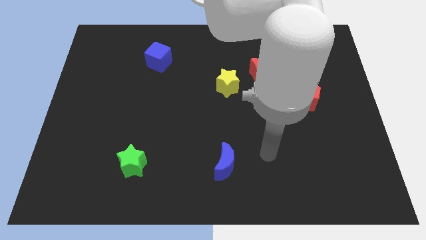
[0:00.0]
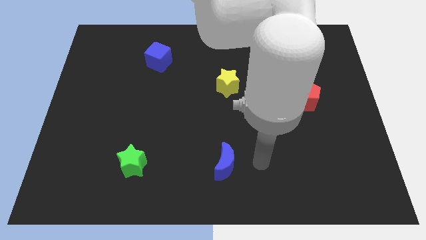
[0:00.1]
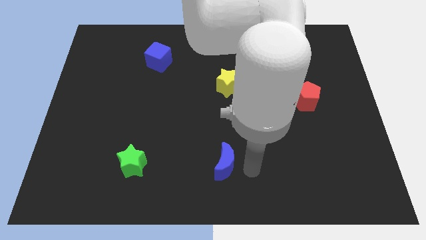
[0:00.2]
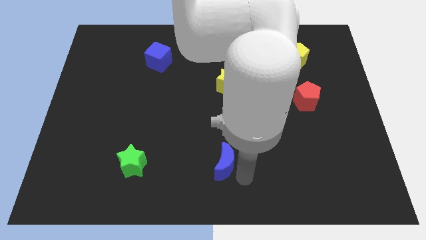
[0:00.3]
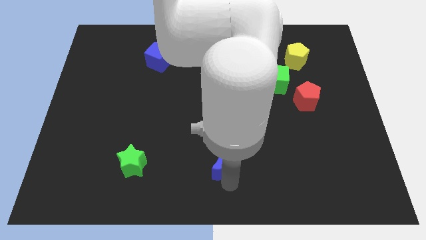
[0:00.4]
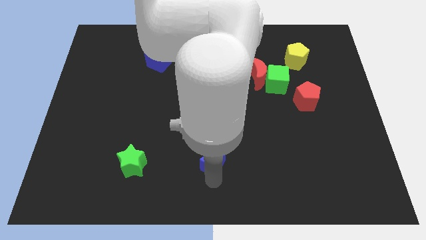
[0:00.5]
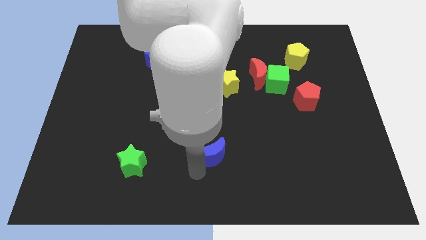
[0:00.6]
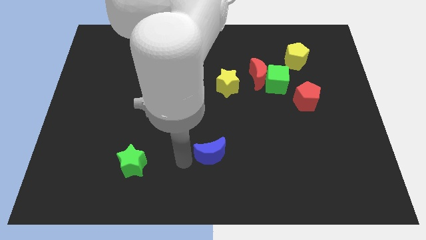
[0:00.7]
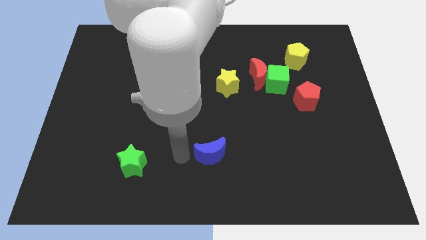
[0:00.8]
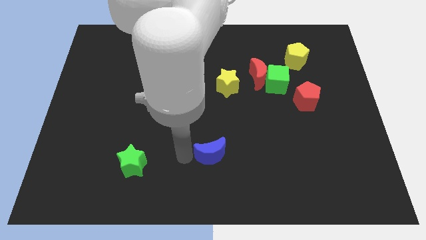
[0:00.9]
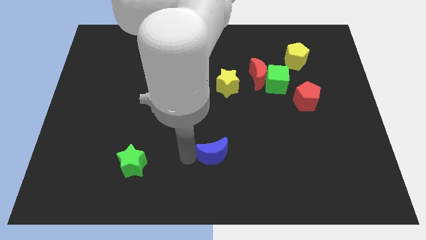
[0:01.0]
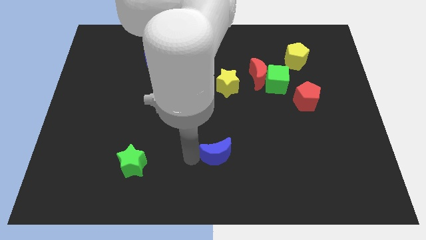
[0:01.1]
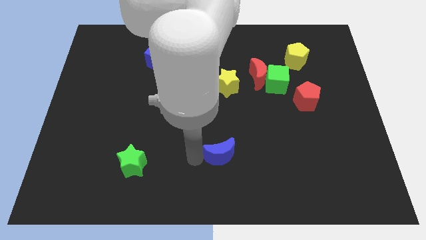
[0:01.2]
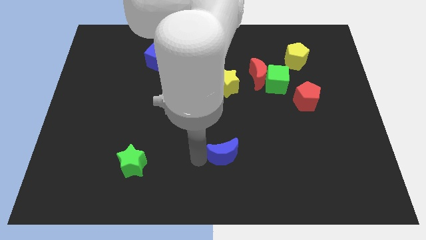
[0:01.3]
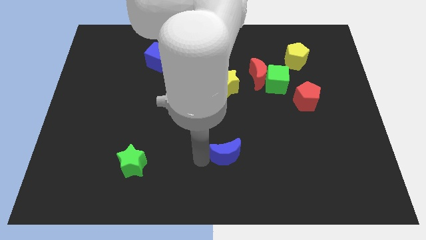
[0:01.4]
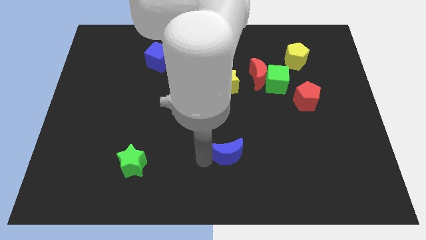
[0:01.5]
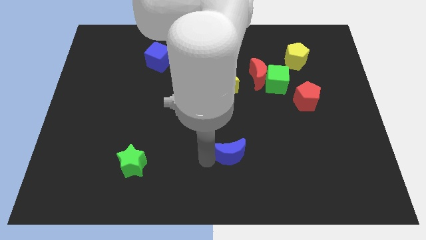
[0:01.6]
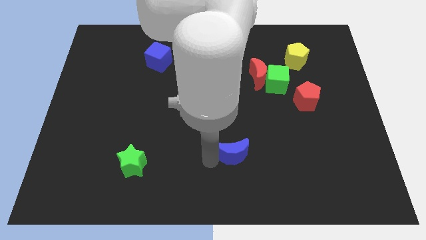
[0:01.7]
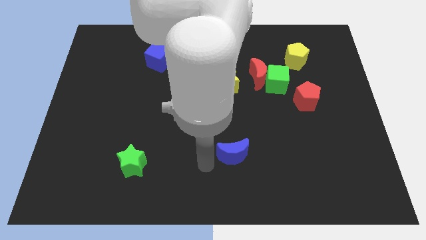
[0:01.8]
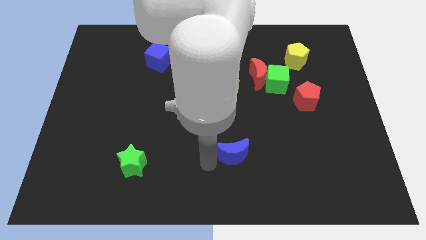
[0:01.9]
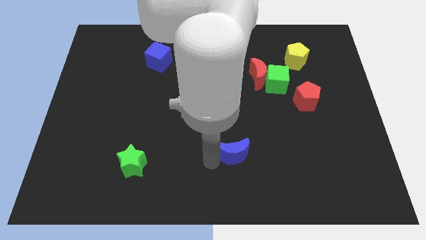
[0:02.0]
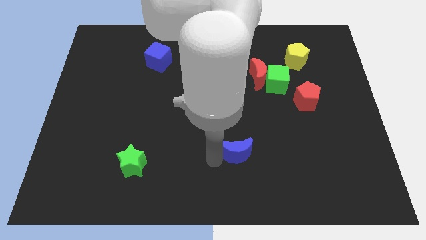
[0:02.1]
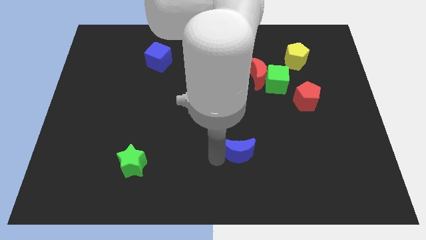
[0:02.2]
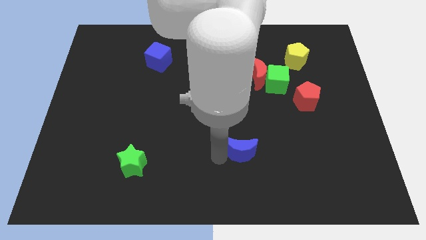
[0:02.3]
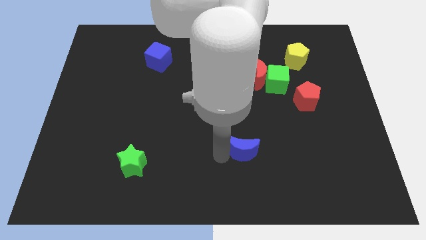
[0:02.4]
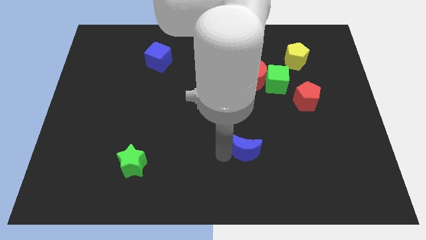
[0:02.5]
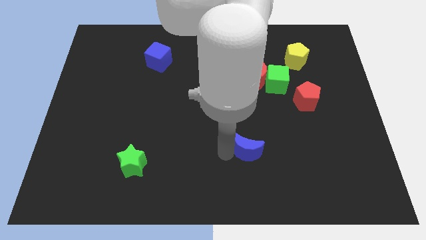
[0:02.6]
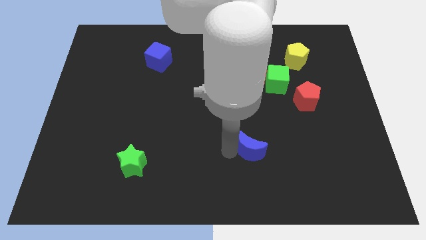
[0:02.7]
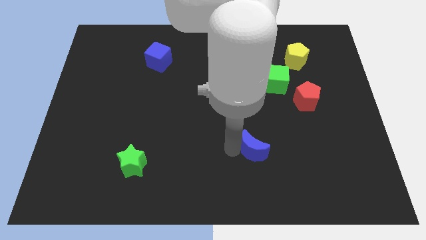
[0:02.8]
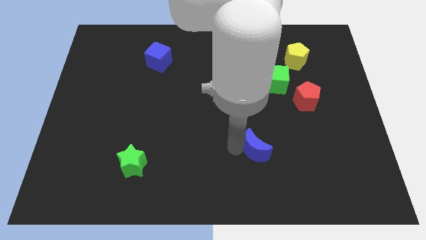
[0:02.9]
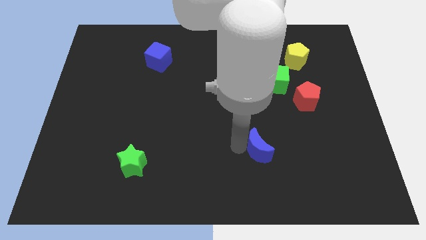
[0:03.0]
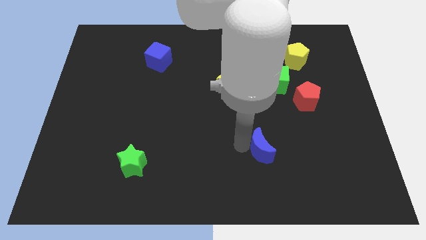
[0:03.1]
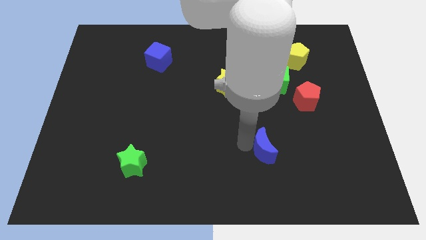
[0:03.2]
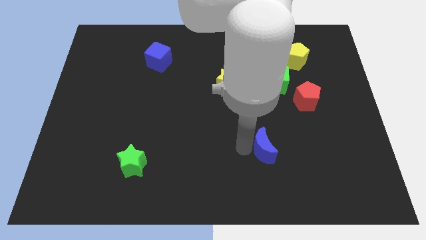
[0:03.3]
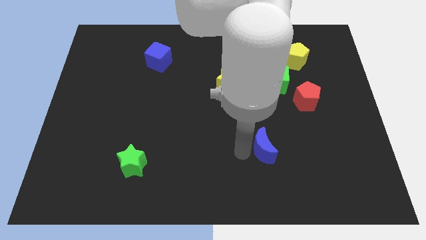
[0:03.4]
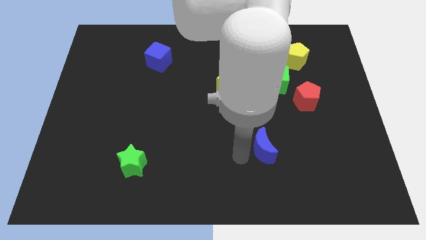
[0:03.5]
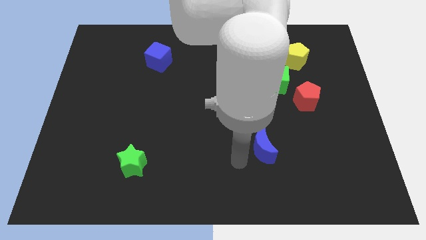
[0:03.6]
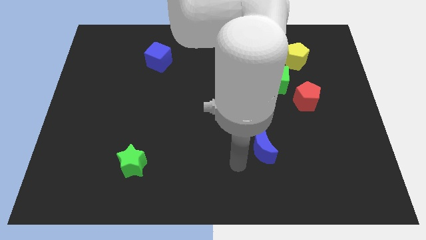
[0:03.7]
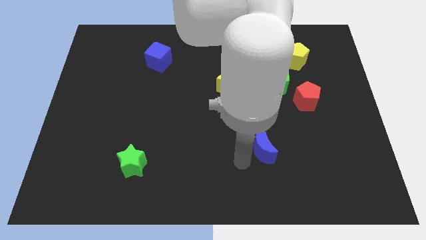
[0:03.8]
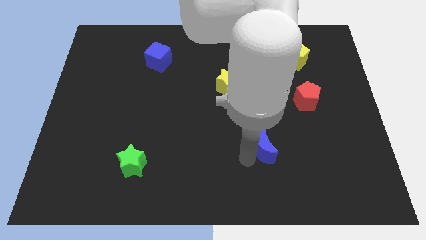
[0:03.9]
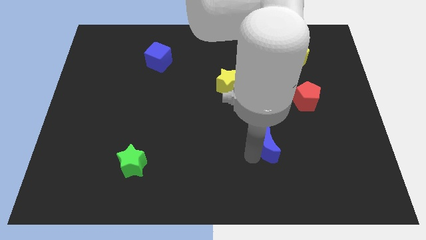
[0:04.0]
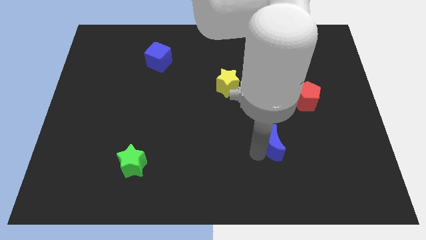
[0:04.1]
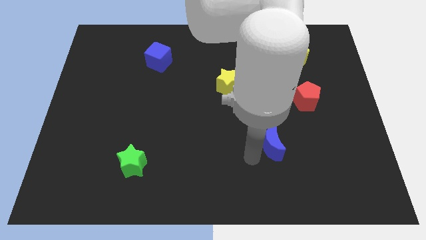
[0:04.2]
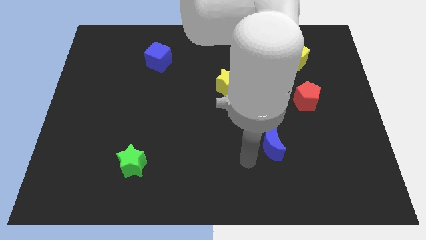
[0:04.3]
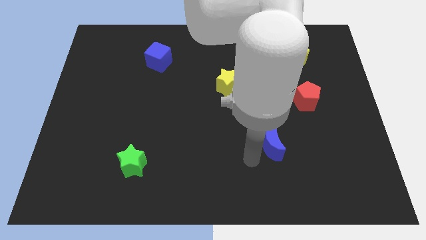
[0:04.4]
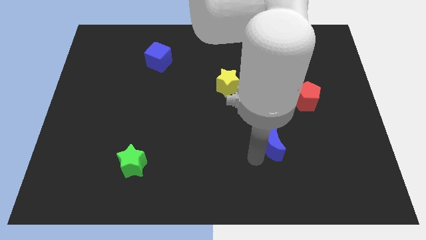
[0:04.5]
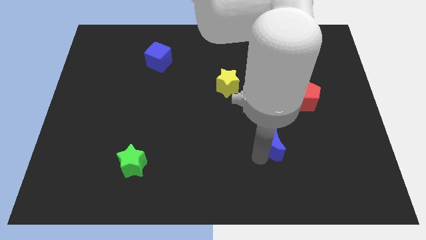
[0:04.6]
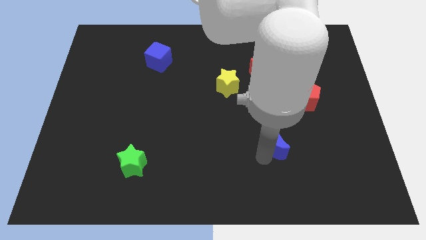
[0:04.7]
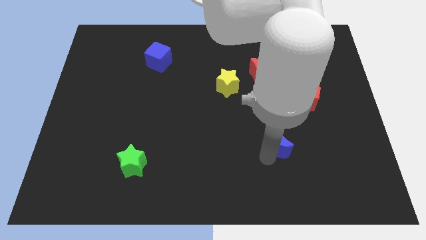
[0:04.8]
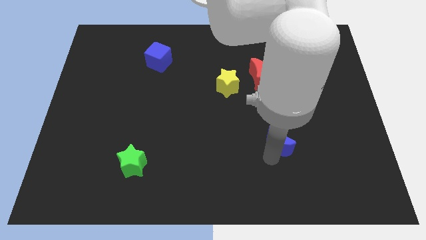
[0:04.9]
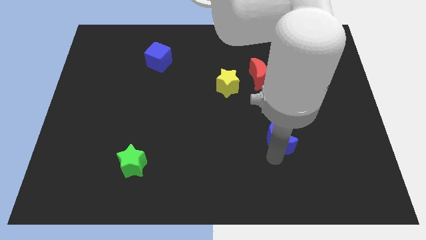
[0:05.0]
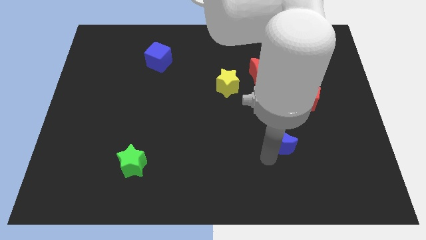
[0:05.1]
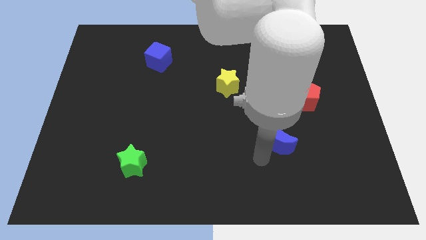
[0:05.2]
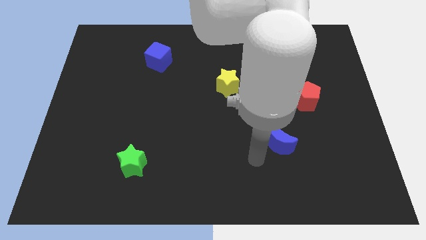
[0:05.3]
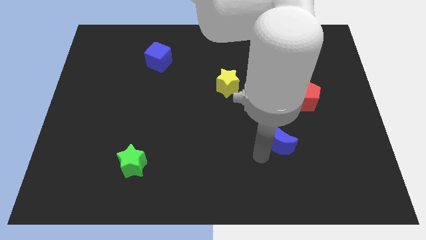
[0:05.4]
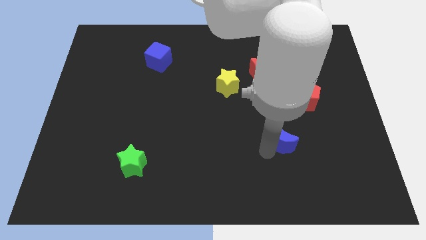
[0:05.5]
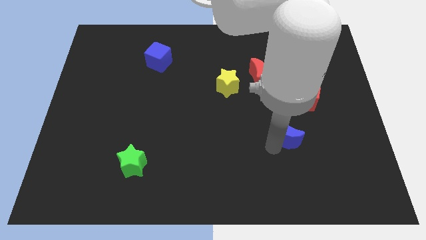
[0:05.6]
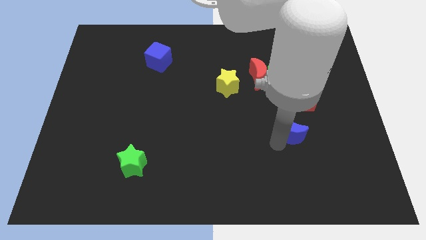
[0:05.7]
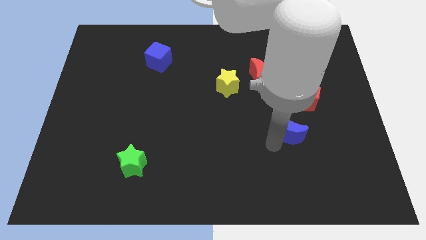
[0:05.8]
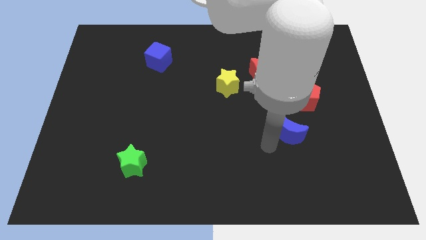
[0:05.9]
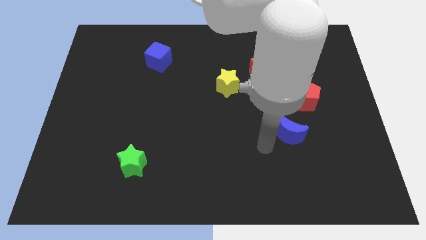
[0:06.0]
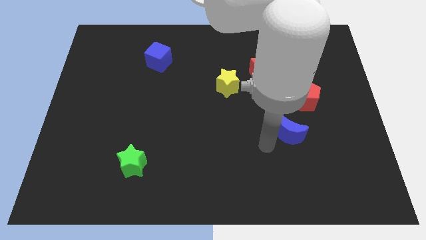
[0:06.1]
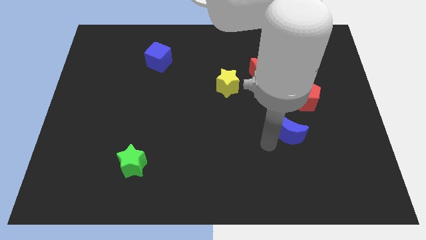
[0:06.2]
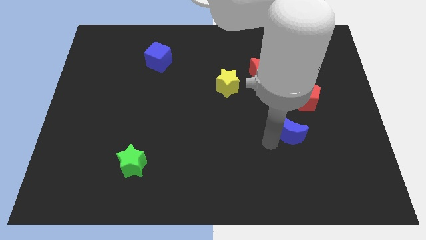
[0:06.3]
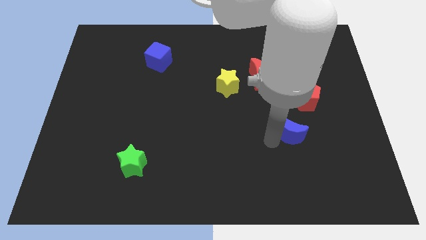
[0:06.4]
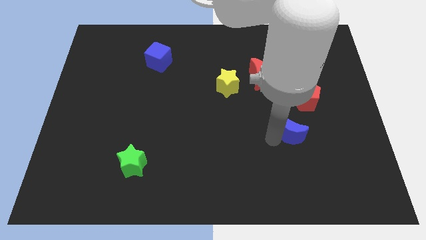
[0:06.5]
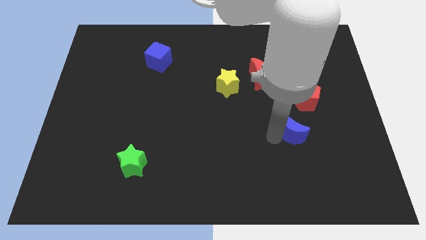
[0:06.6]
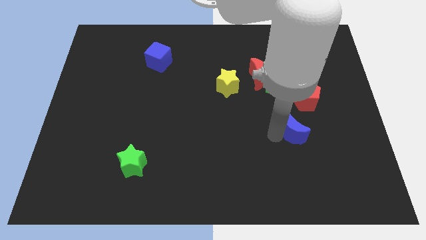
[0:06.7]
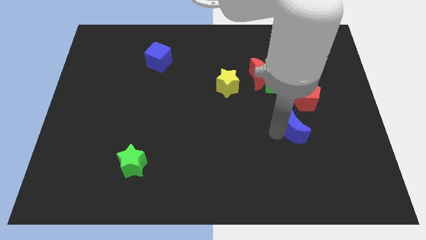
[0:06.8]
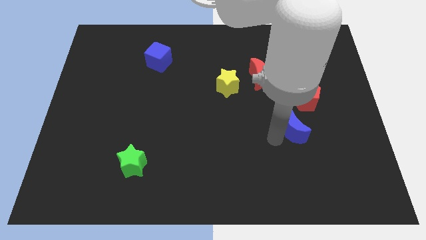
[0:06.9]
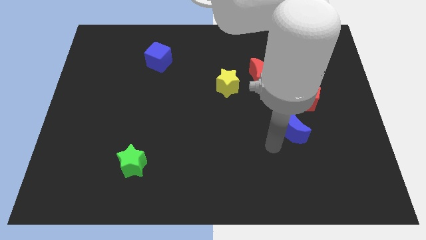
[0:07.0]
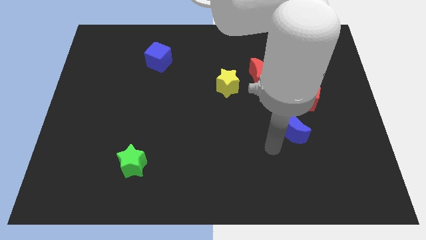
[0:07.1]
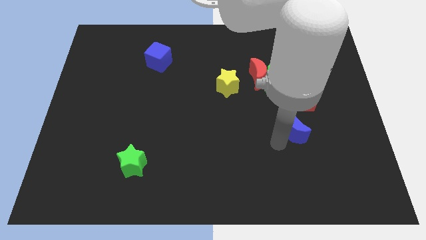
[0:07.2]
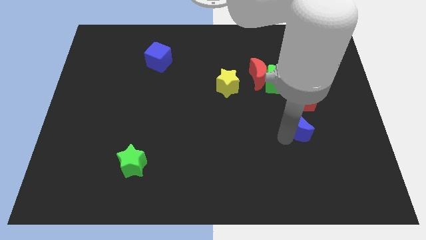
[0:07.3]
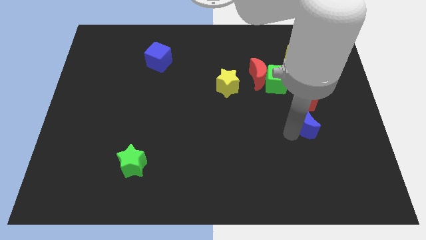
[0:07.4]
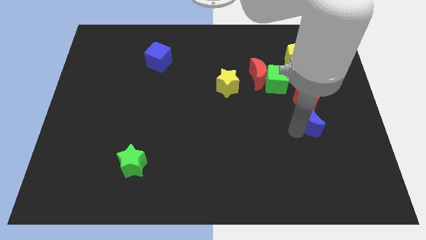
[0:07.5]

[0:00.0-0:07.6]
push the blue moon up and right diagonally

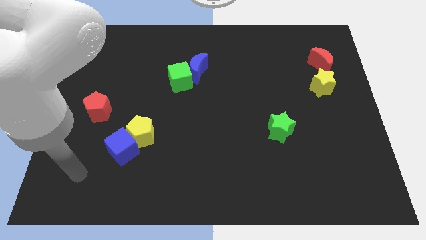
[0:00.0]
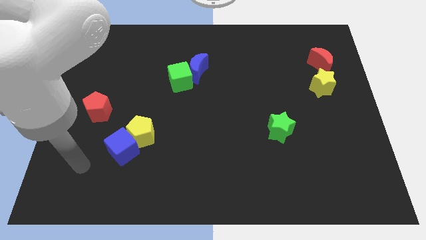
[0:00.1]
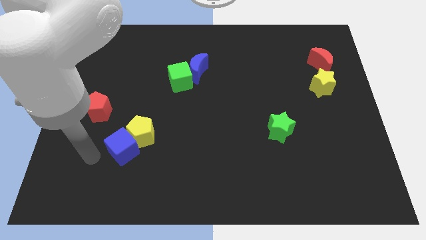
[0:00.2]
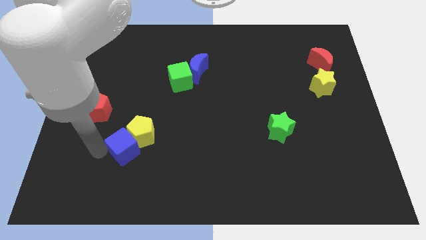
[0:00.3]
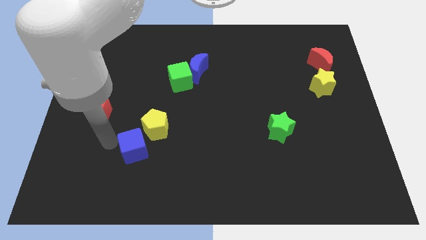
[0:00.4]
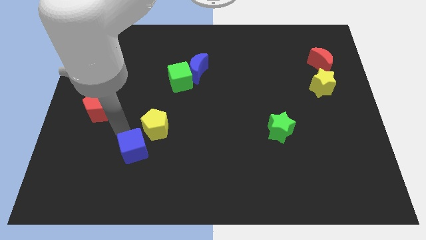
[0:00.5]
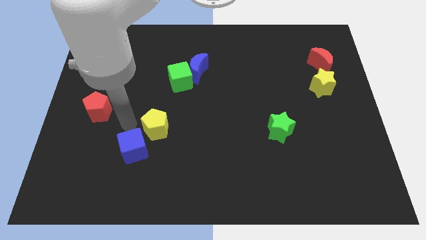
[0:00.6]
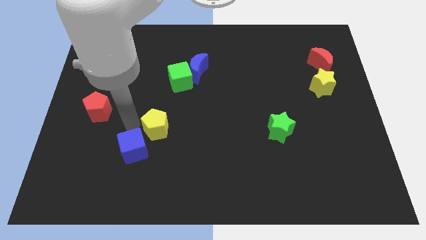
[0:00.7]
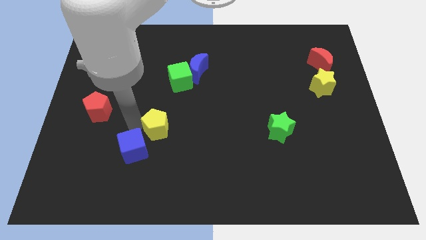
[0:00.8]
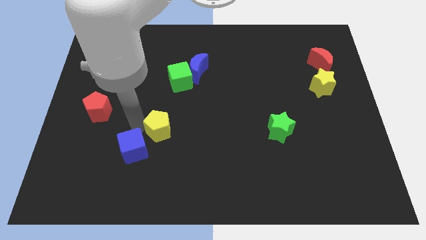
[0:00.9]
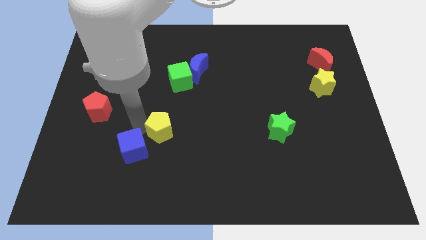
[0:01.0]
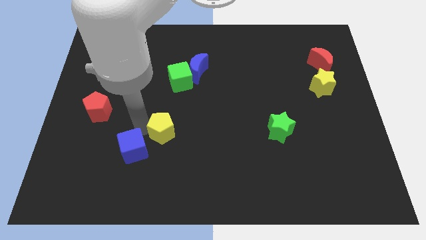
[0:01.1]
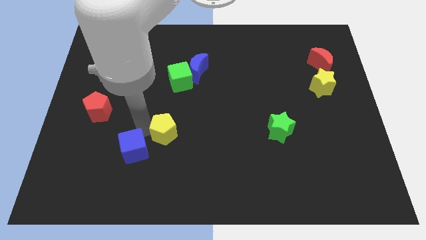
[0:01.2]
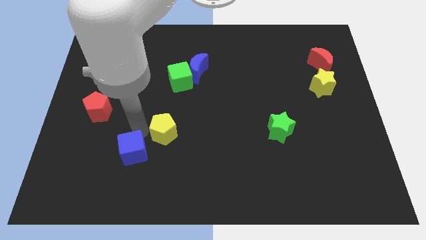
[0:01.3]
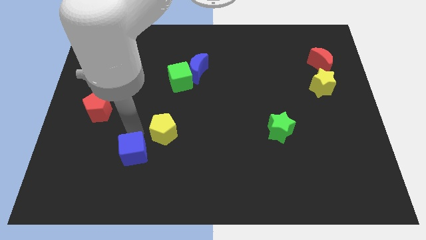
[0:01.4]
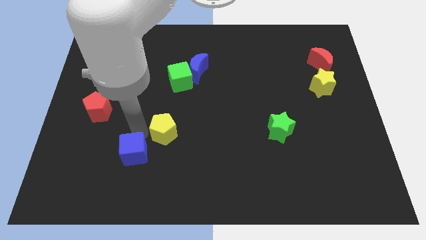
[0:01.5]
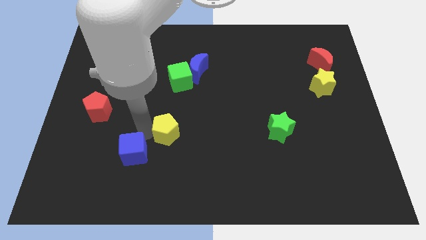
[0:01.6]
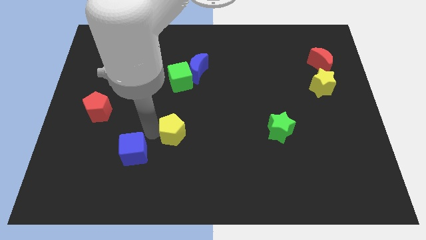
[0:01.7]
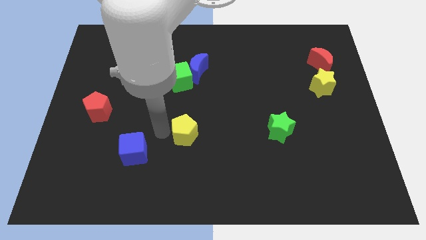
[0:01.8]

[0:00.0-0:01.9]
slide the yellow pentagon a little bit right
